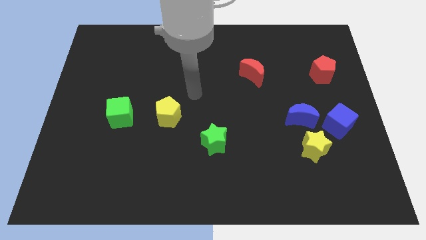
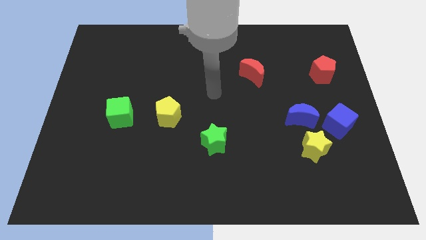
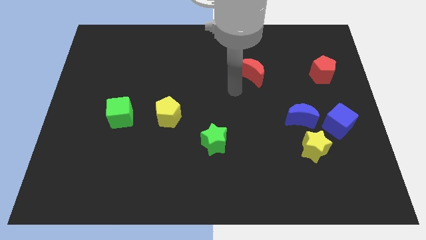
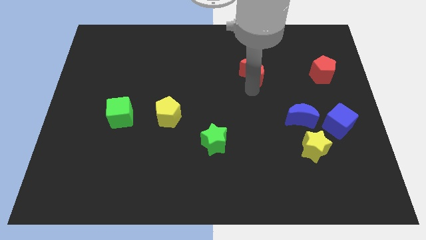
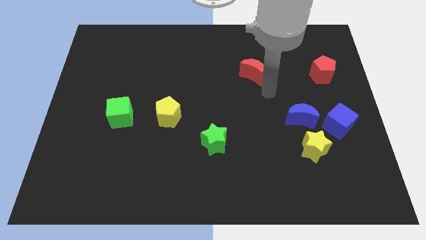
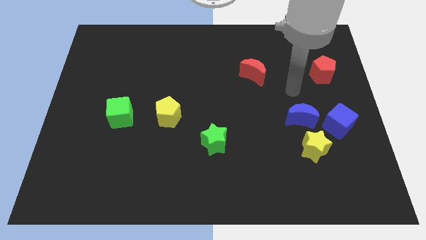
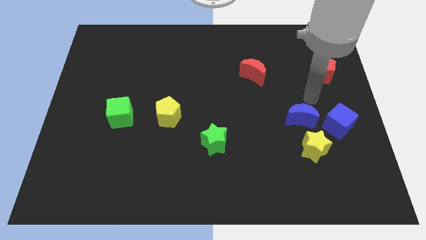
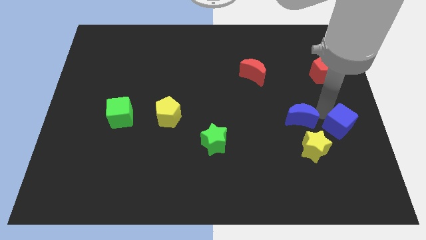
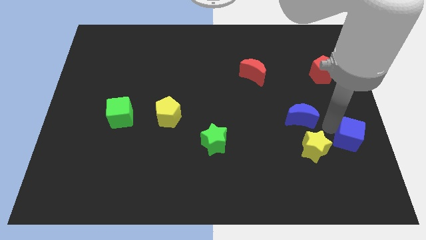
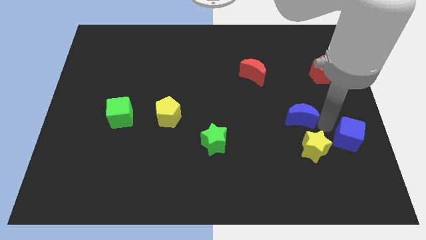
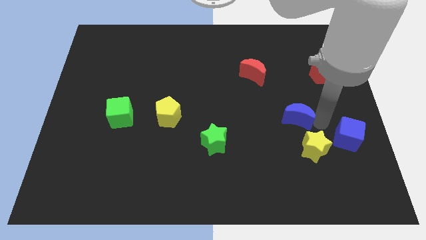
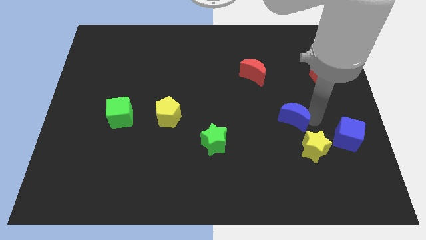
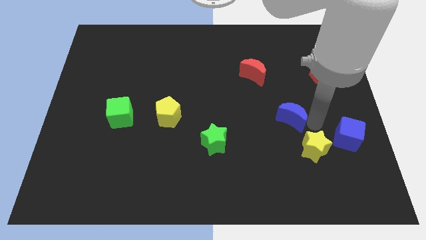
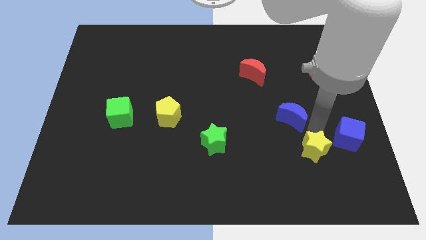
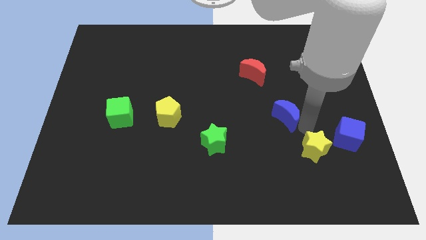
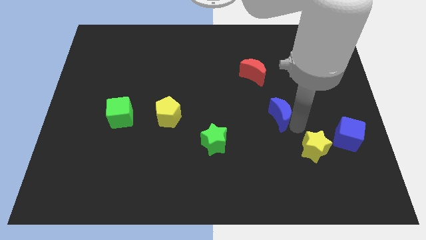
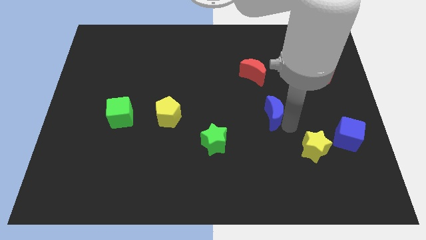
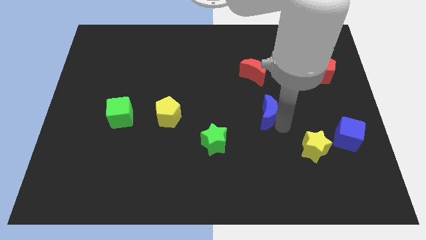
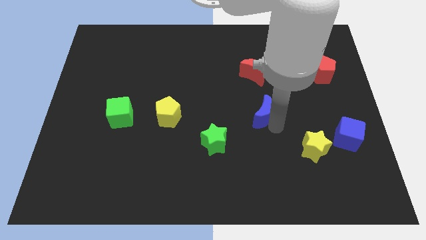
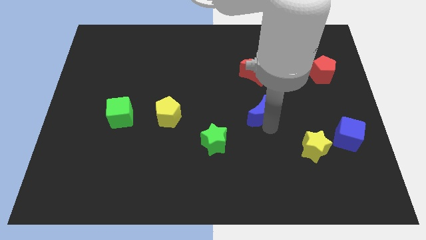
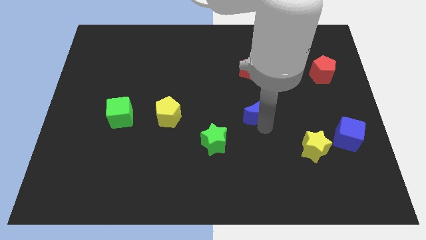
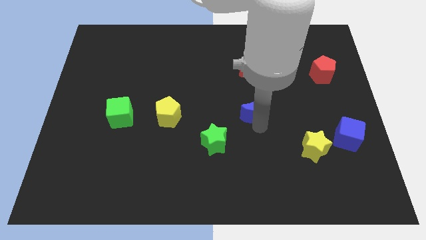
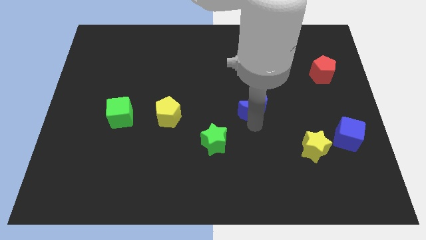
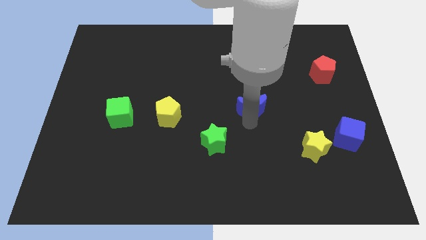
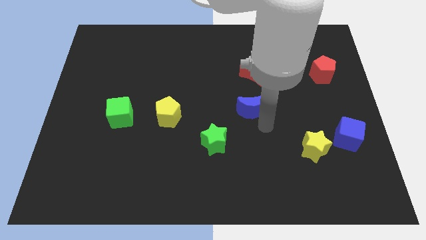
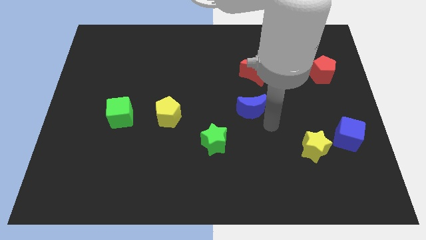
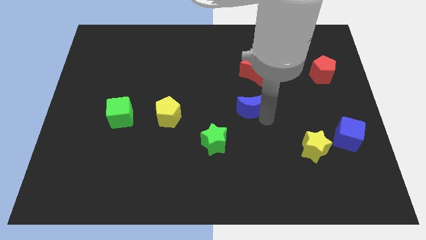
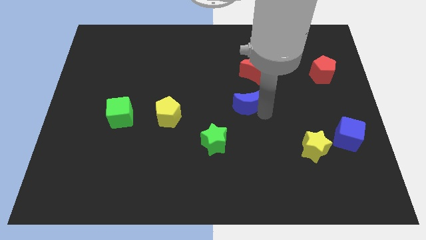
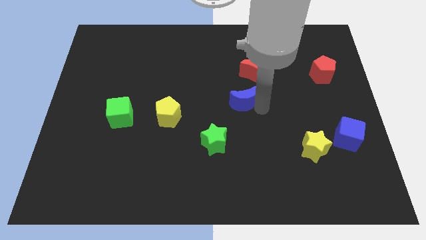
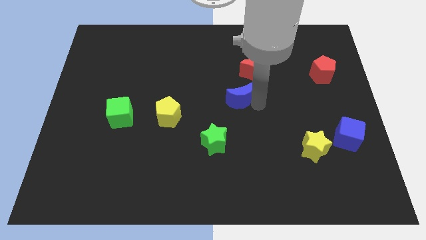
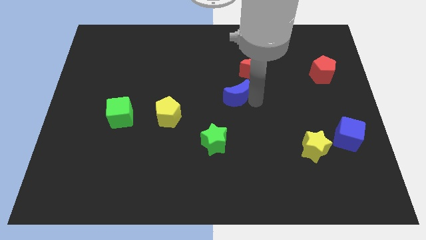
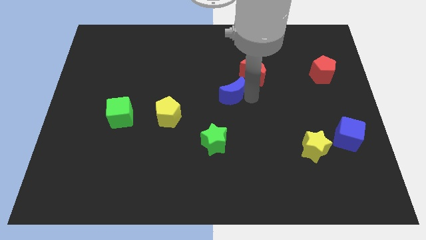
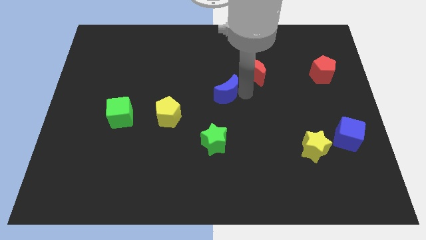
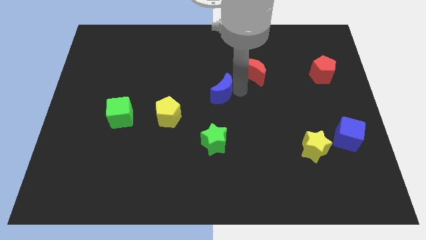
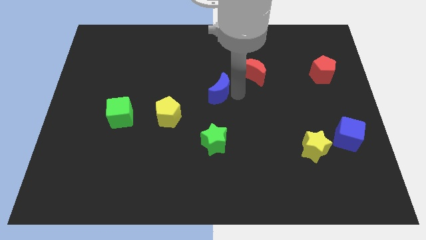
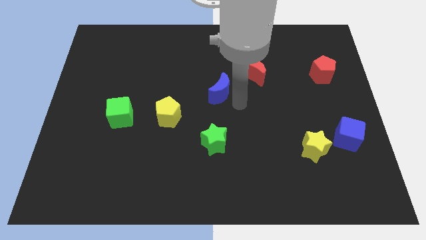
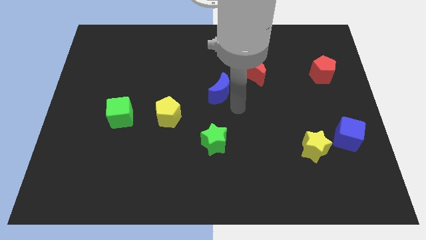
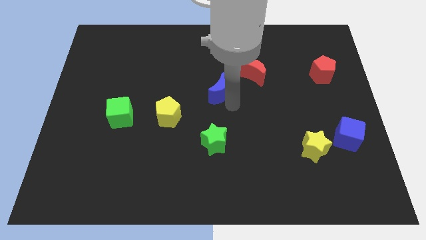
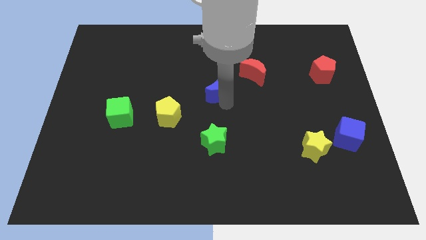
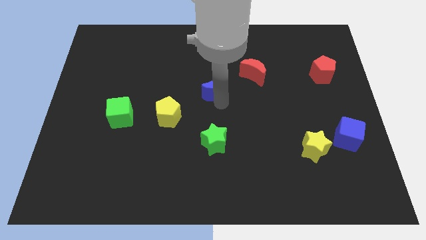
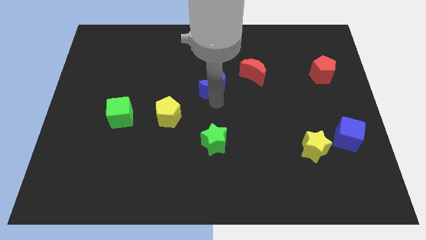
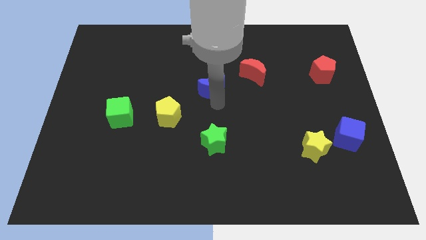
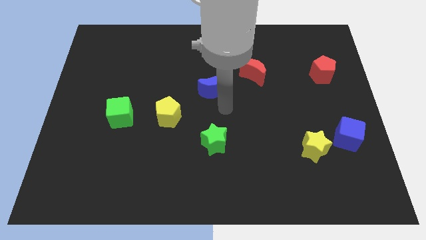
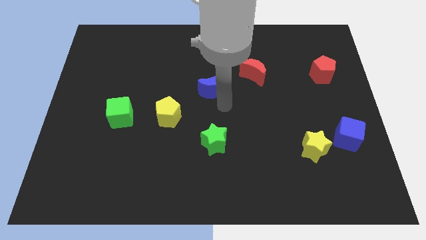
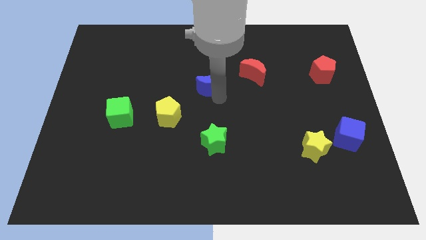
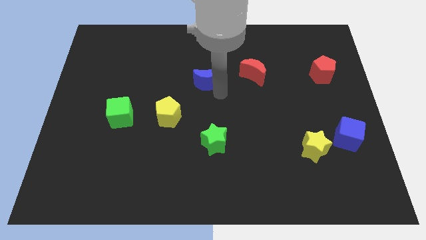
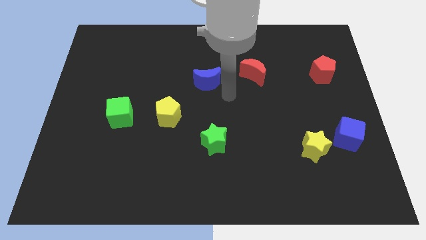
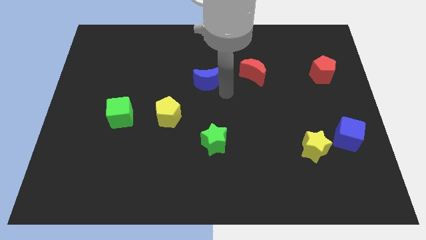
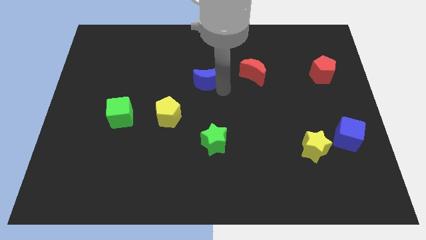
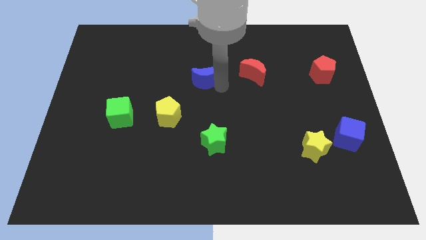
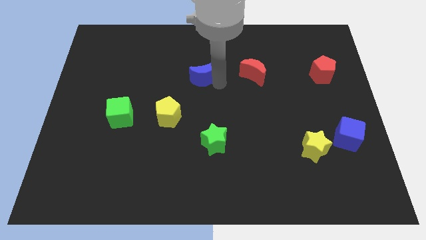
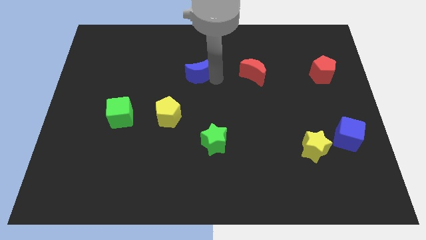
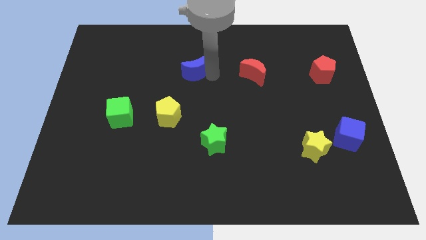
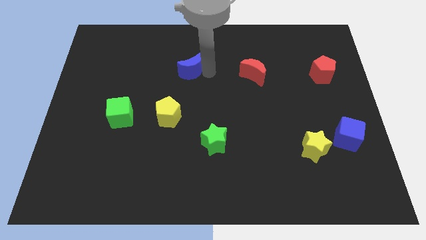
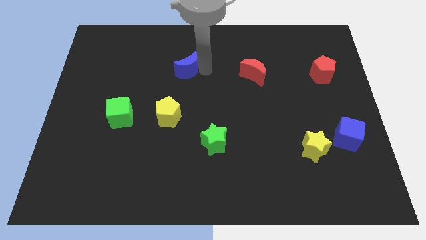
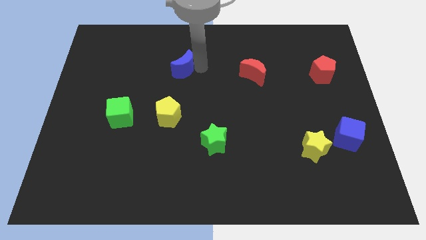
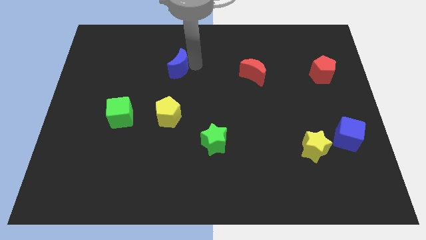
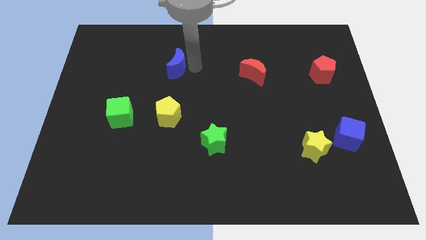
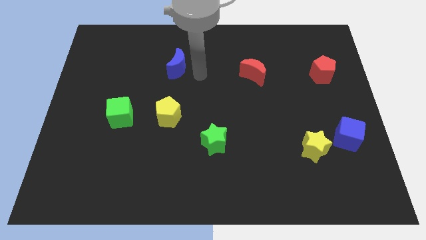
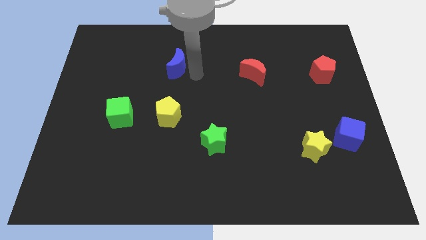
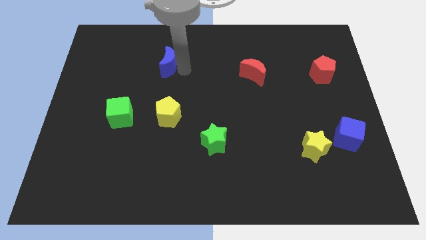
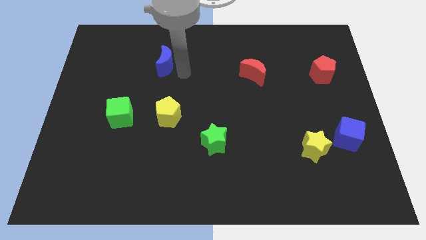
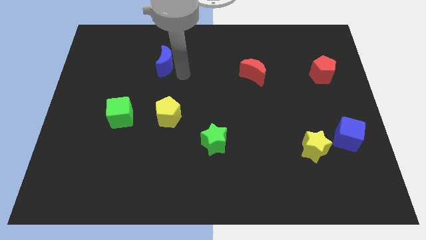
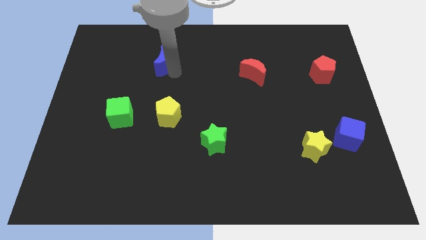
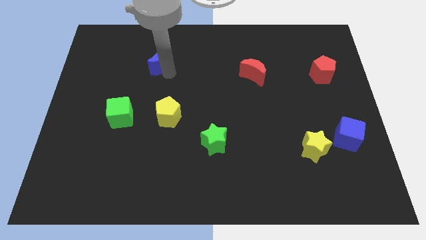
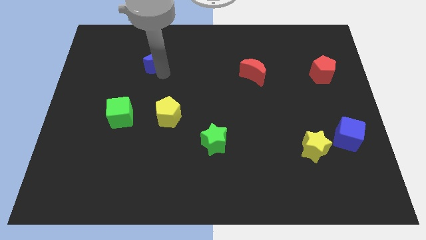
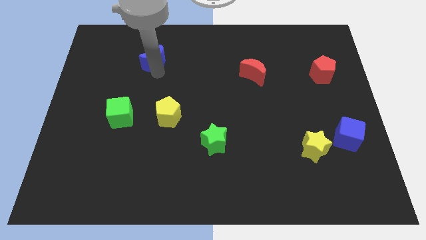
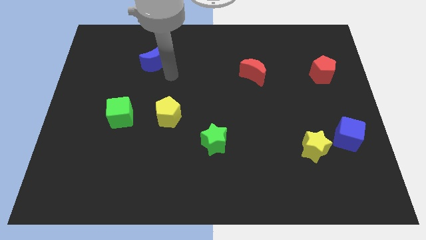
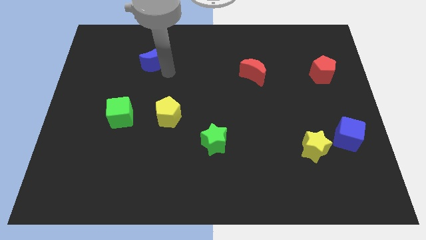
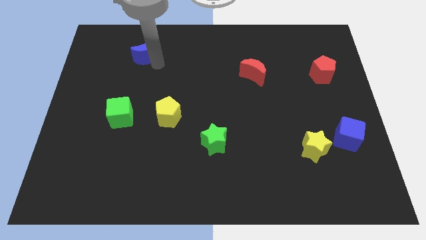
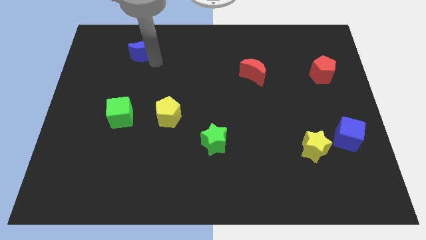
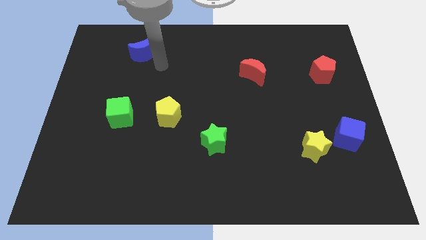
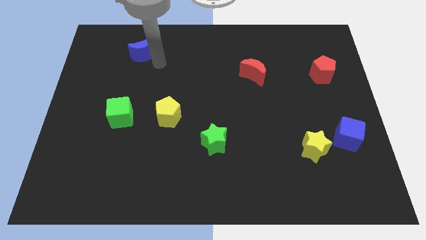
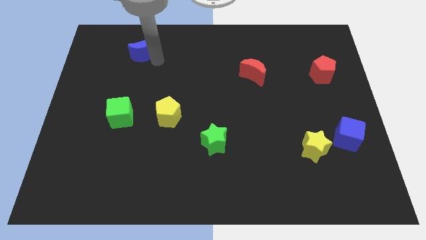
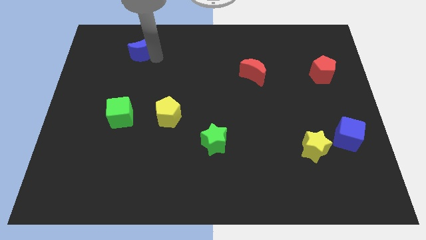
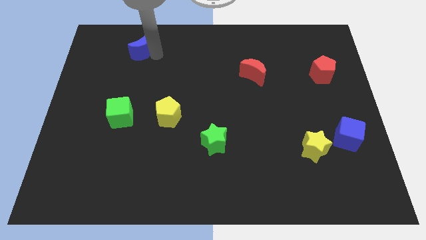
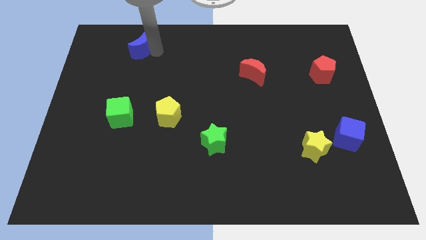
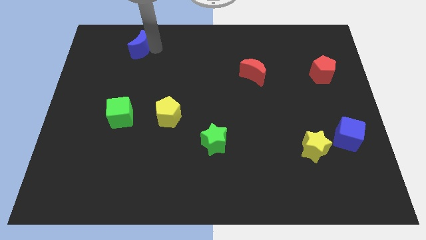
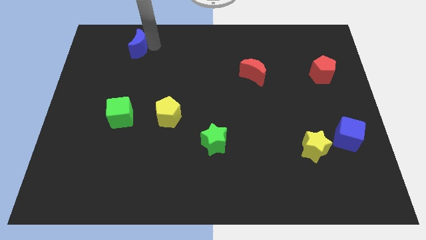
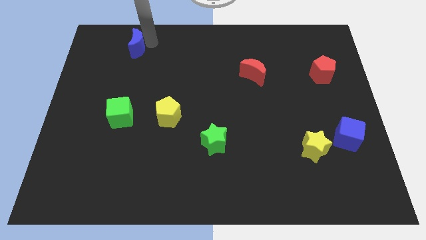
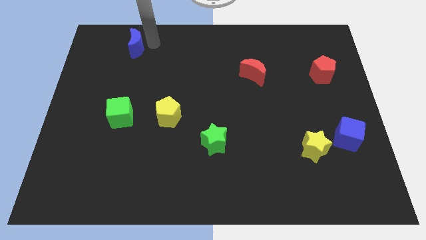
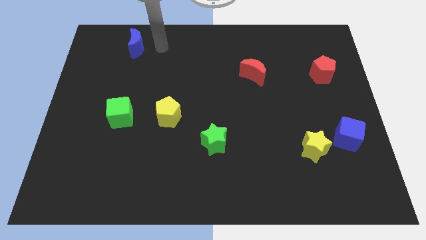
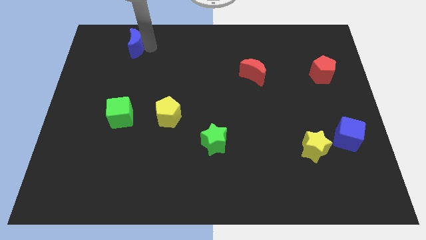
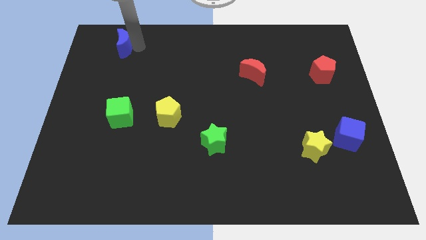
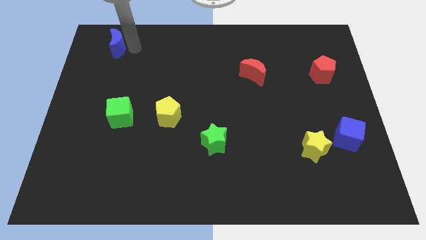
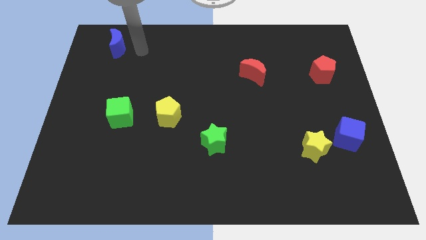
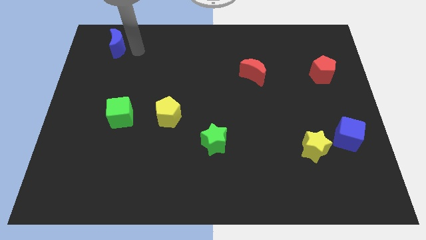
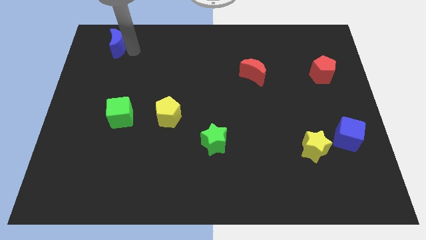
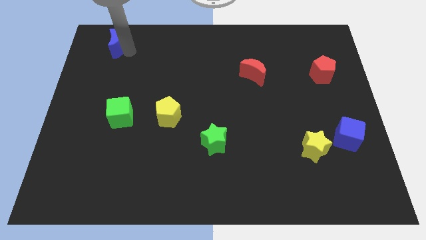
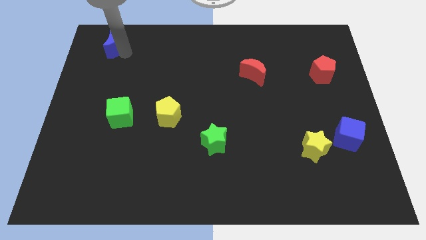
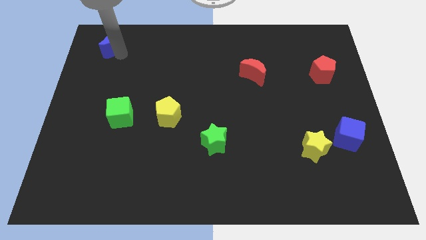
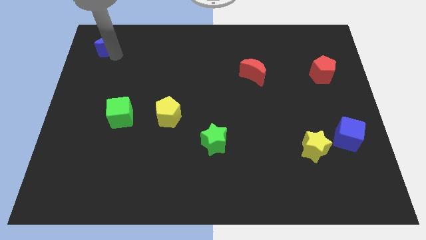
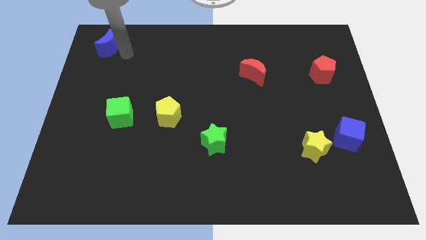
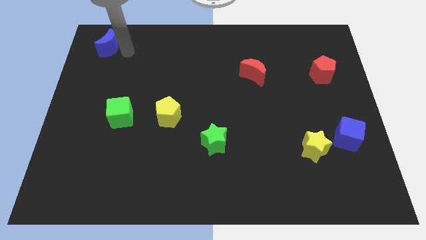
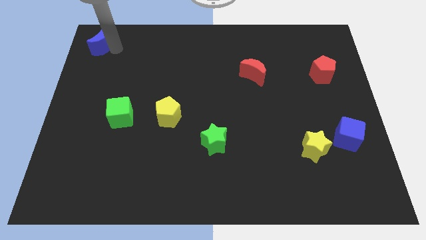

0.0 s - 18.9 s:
put the blue moon to the top left of the board
